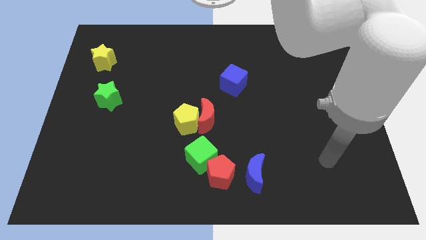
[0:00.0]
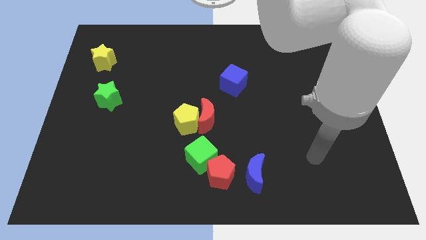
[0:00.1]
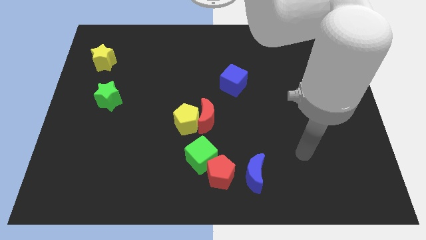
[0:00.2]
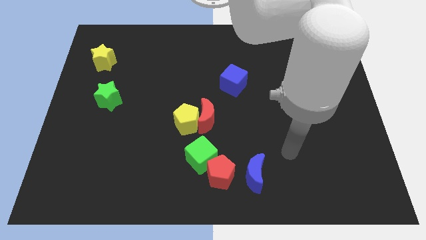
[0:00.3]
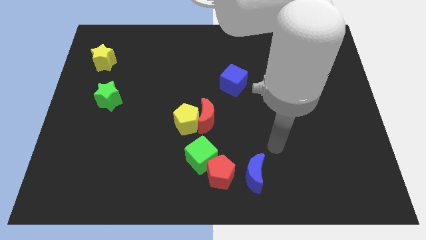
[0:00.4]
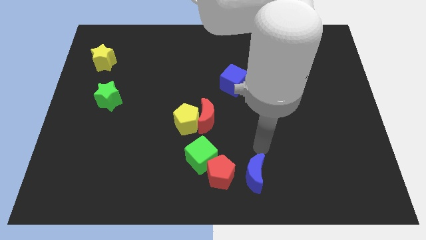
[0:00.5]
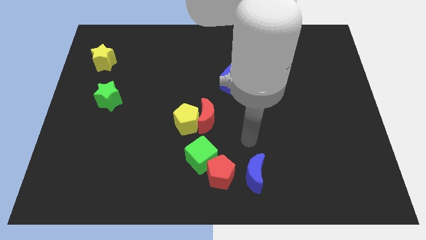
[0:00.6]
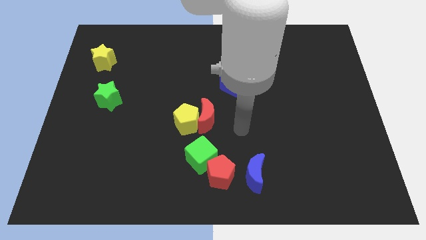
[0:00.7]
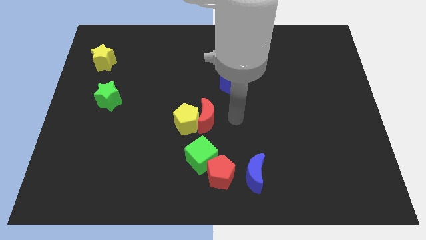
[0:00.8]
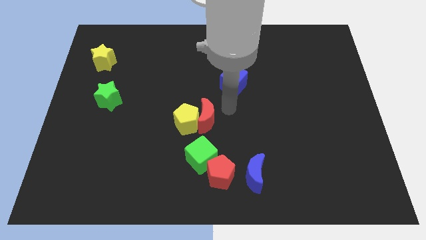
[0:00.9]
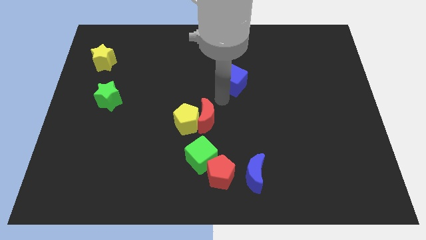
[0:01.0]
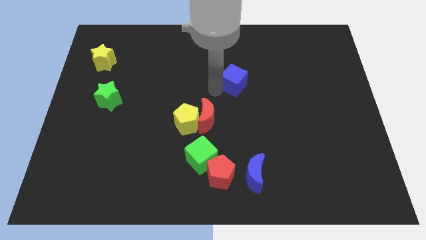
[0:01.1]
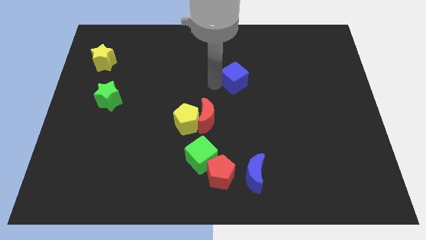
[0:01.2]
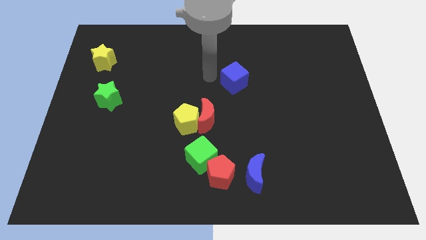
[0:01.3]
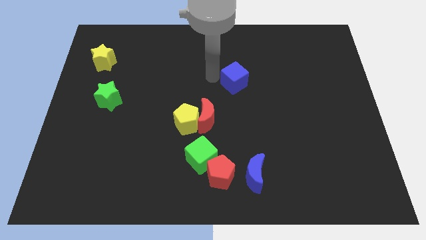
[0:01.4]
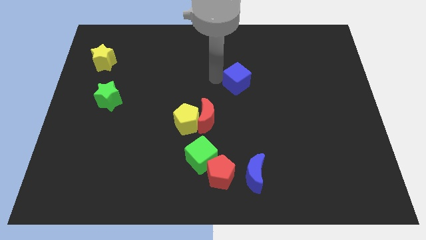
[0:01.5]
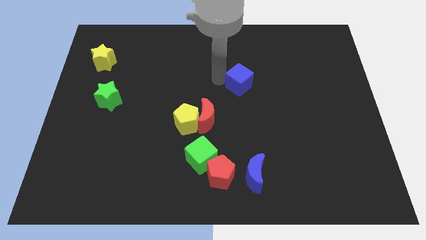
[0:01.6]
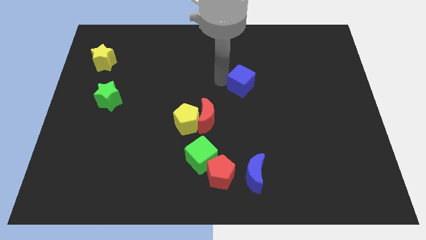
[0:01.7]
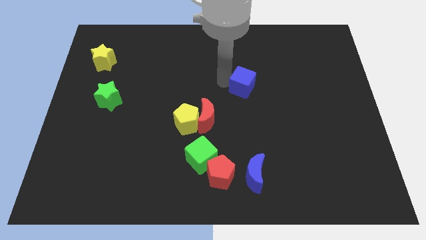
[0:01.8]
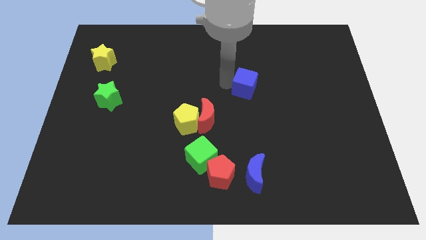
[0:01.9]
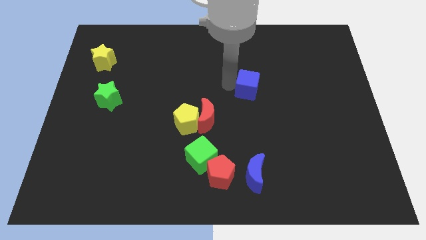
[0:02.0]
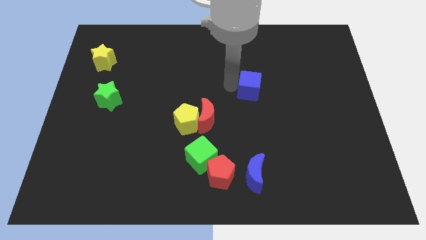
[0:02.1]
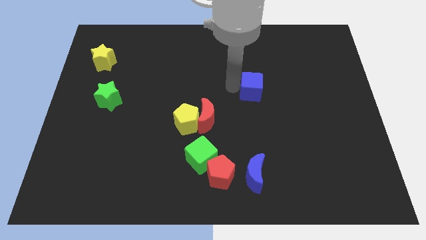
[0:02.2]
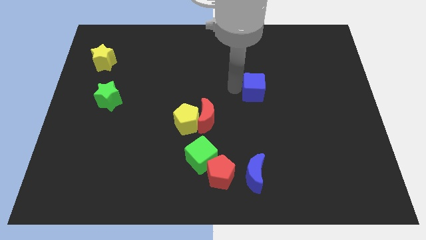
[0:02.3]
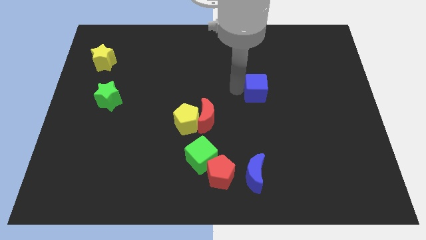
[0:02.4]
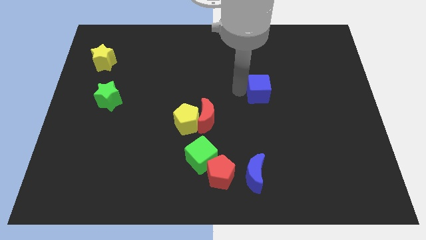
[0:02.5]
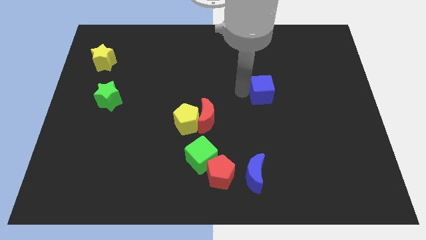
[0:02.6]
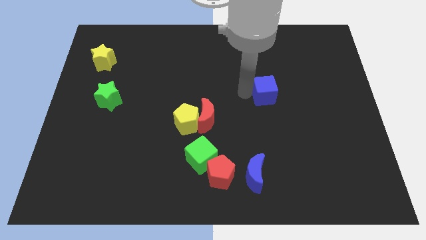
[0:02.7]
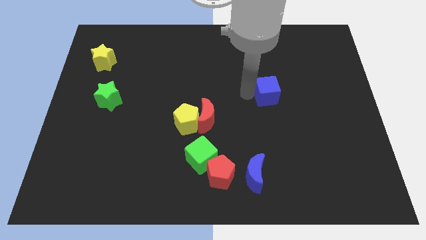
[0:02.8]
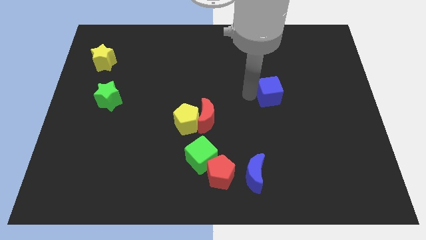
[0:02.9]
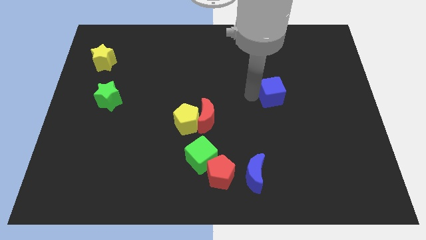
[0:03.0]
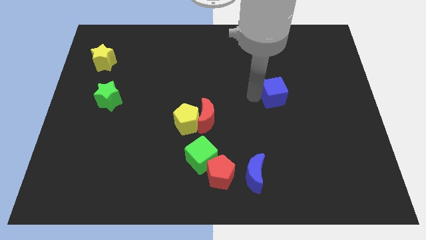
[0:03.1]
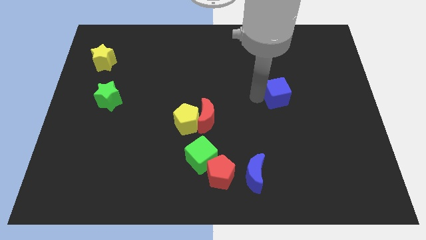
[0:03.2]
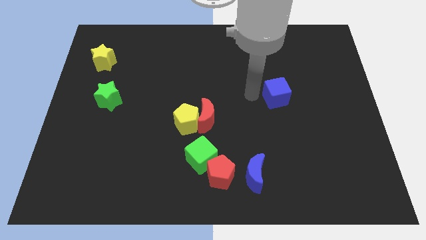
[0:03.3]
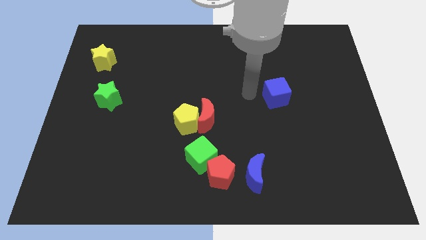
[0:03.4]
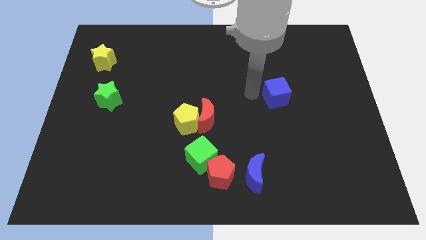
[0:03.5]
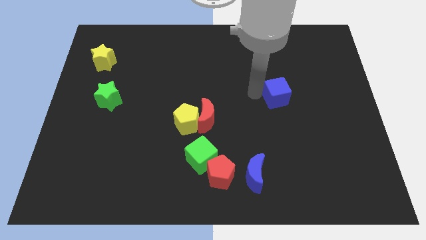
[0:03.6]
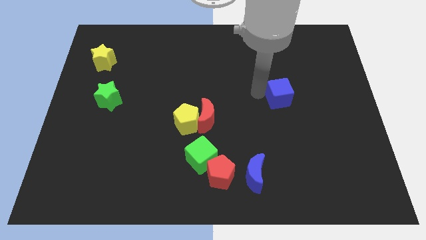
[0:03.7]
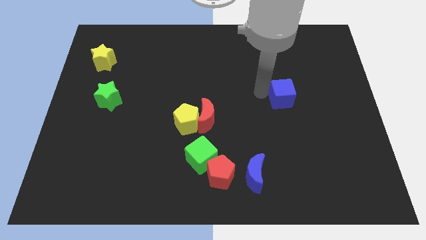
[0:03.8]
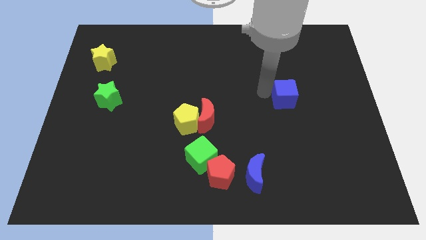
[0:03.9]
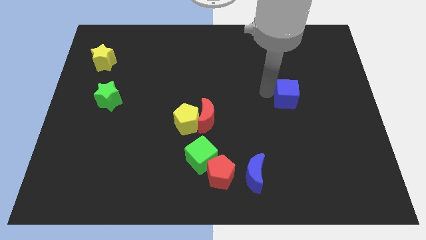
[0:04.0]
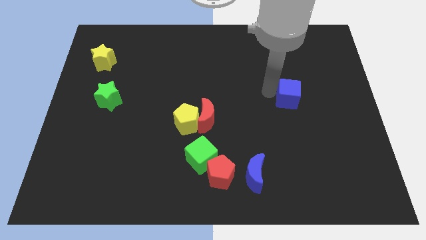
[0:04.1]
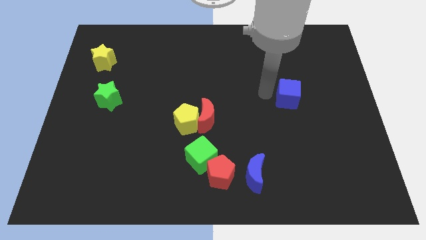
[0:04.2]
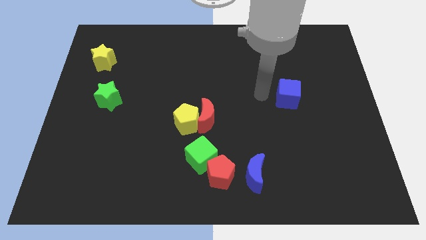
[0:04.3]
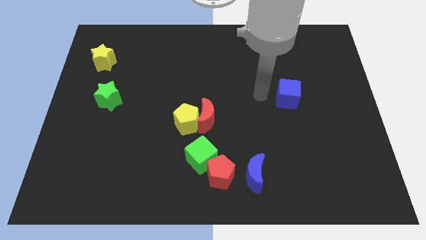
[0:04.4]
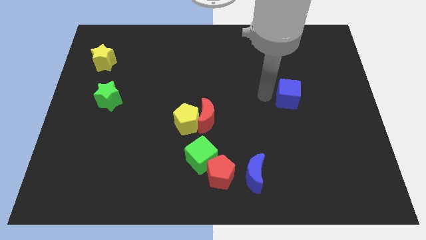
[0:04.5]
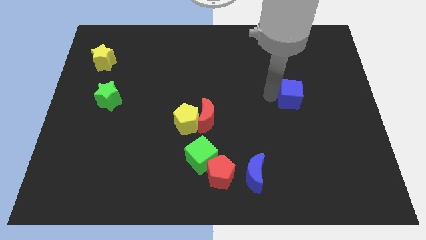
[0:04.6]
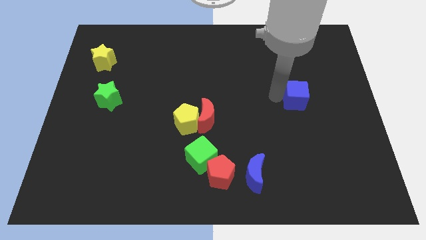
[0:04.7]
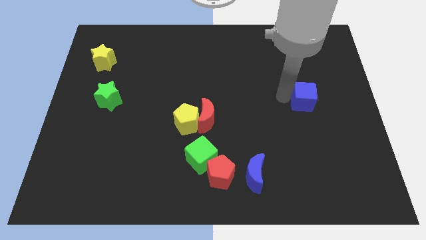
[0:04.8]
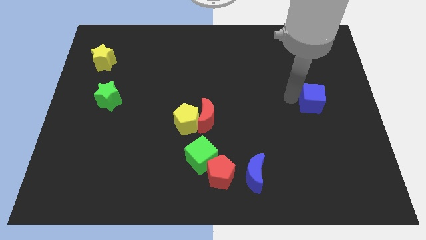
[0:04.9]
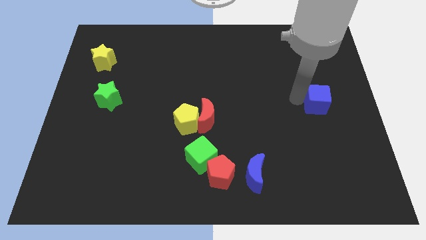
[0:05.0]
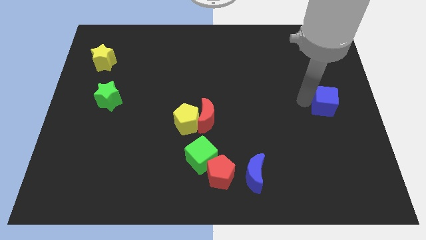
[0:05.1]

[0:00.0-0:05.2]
put the blue cube to the right side of the board

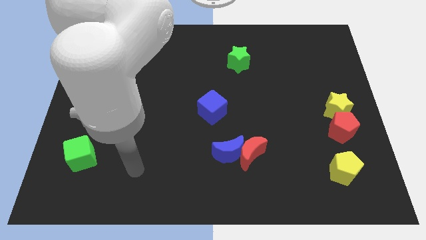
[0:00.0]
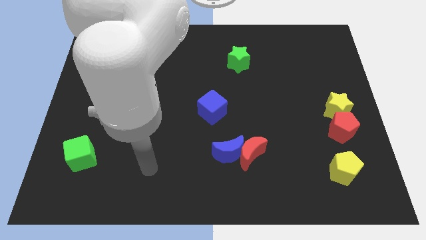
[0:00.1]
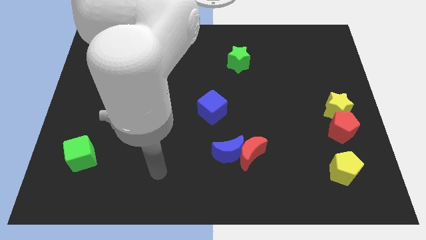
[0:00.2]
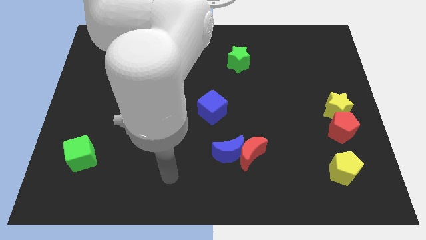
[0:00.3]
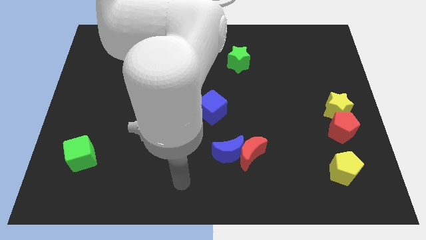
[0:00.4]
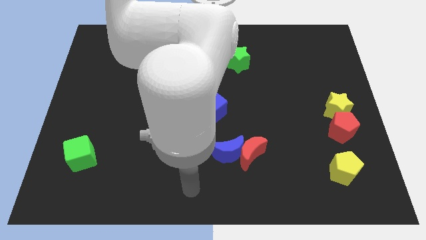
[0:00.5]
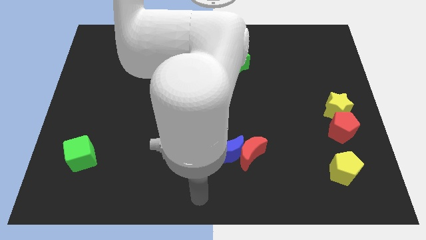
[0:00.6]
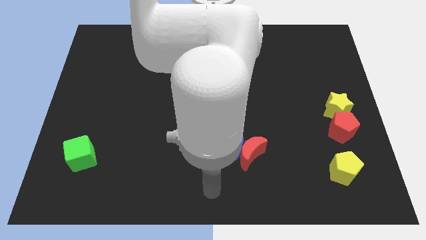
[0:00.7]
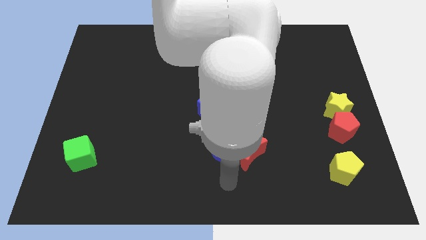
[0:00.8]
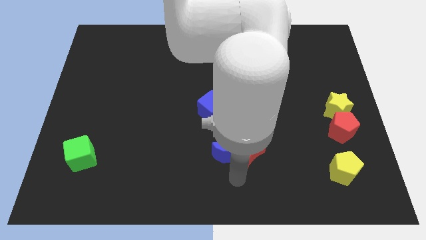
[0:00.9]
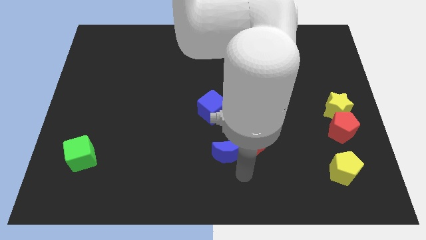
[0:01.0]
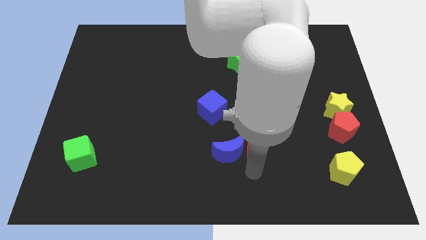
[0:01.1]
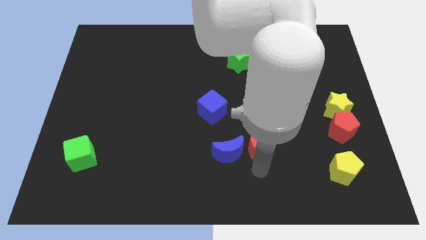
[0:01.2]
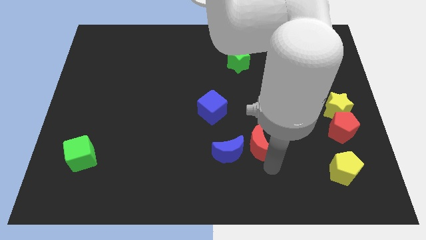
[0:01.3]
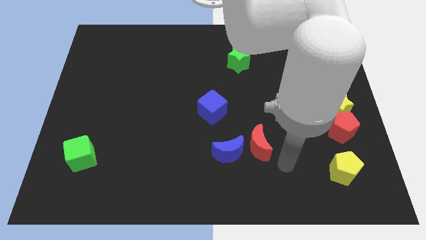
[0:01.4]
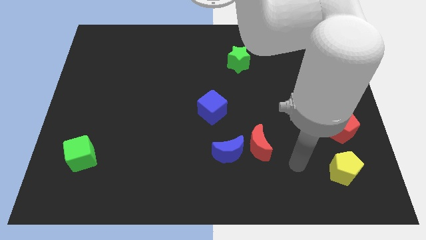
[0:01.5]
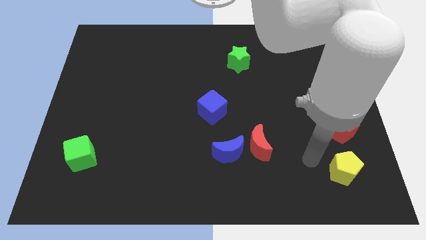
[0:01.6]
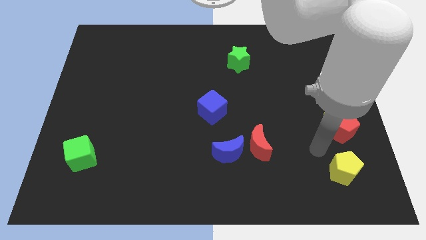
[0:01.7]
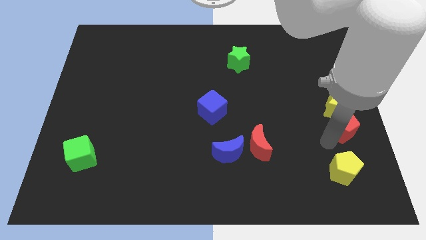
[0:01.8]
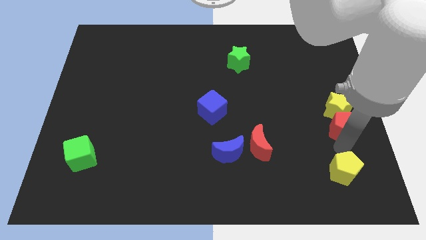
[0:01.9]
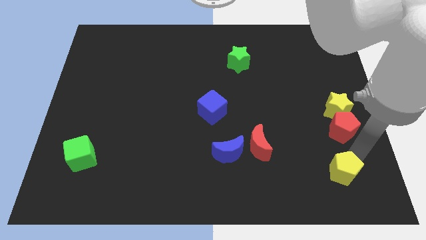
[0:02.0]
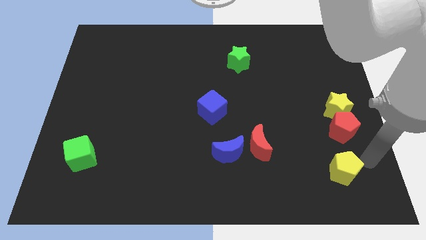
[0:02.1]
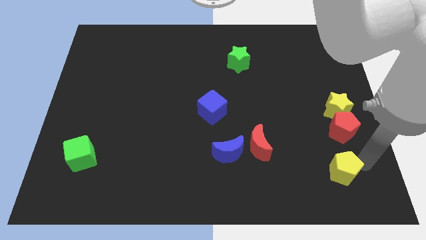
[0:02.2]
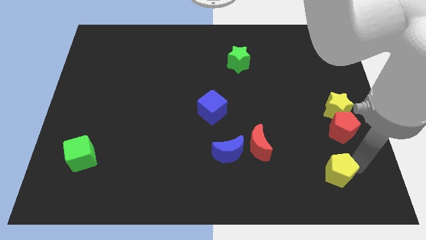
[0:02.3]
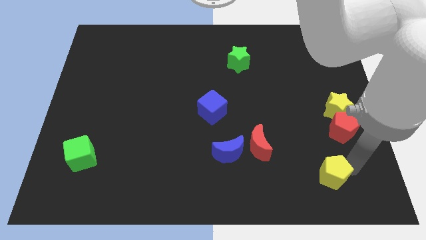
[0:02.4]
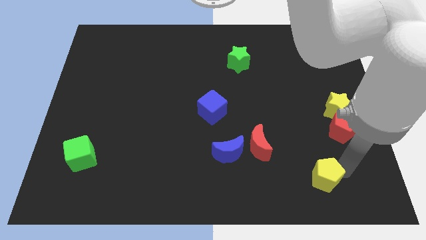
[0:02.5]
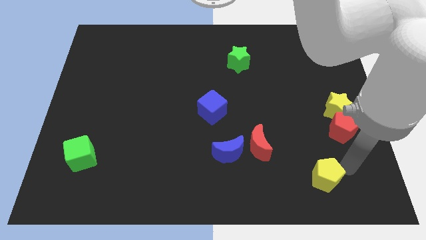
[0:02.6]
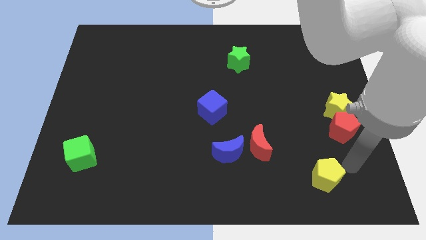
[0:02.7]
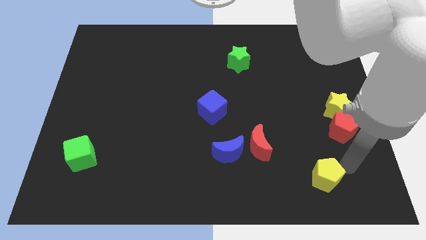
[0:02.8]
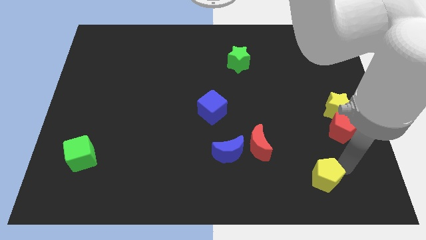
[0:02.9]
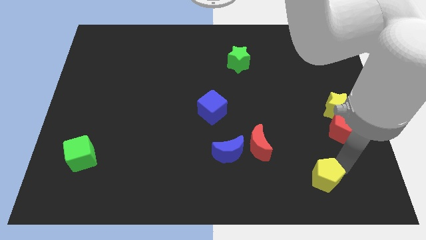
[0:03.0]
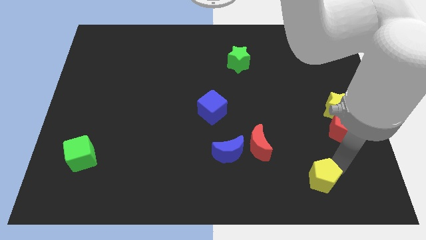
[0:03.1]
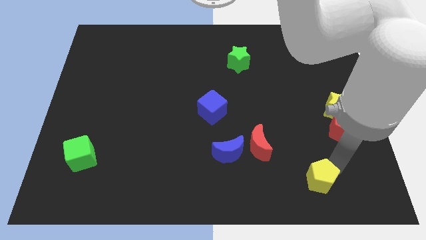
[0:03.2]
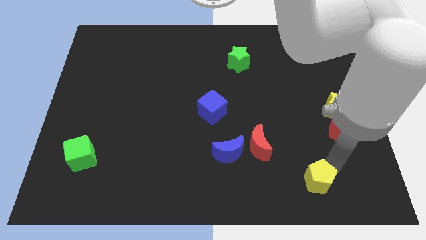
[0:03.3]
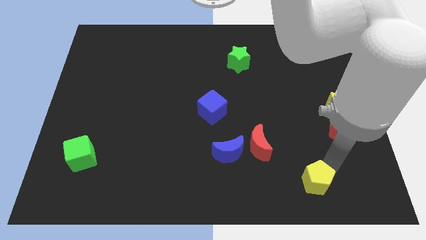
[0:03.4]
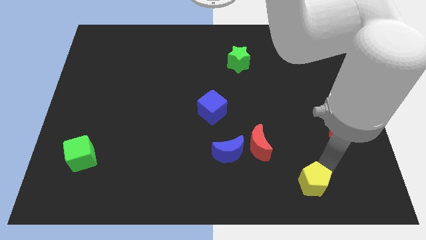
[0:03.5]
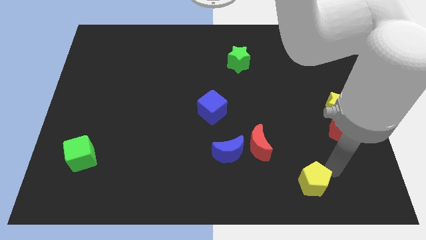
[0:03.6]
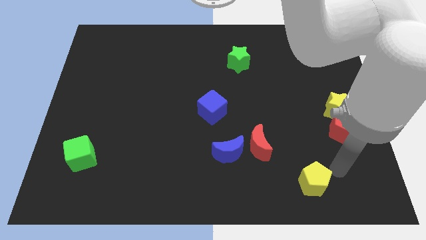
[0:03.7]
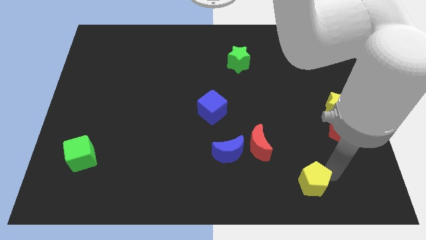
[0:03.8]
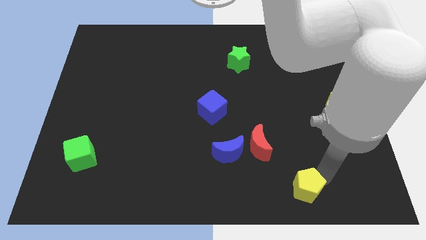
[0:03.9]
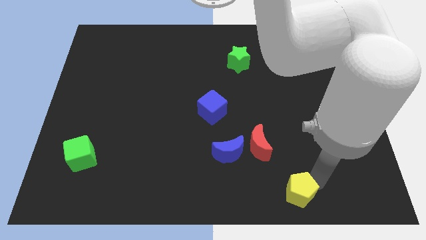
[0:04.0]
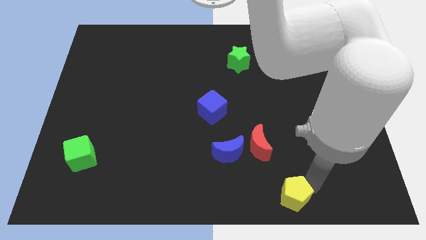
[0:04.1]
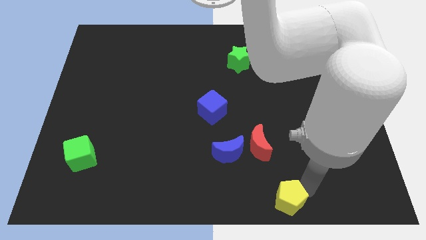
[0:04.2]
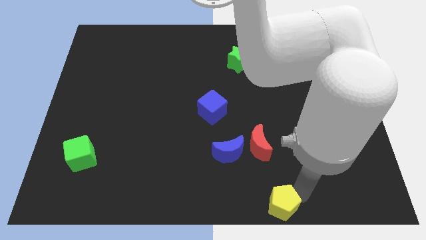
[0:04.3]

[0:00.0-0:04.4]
slide the yellow pentagon to the bottom
